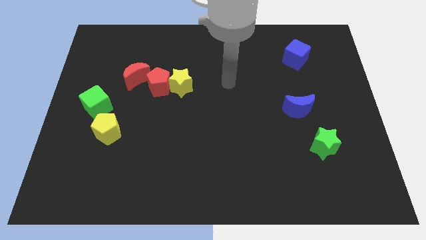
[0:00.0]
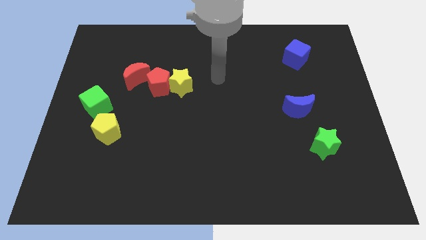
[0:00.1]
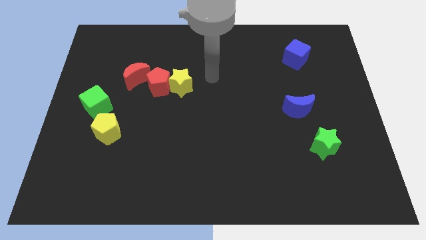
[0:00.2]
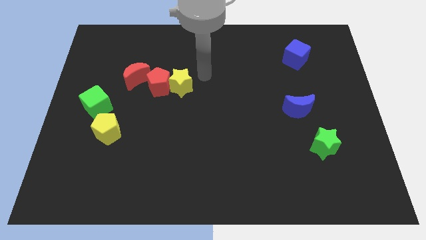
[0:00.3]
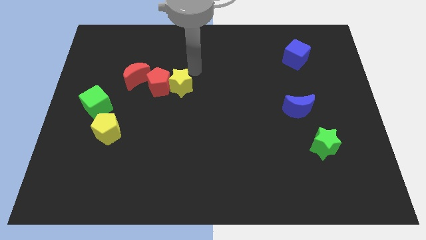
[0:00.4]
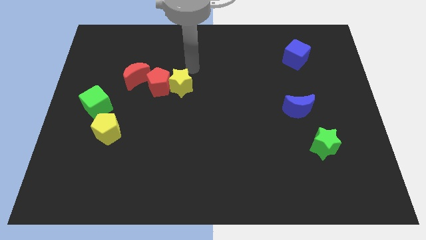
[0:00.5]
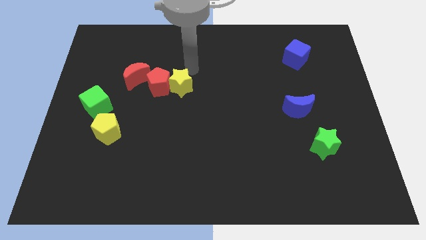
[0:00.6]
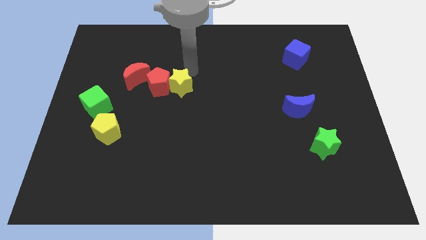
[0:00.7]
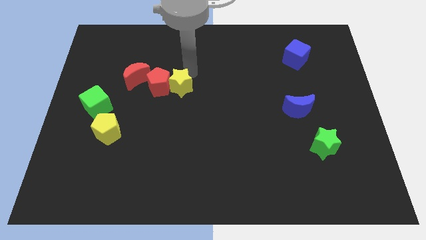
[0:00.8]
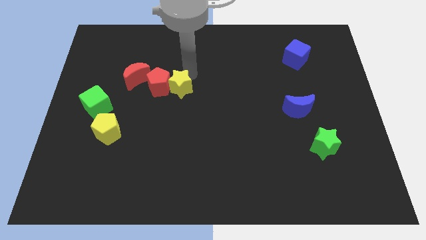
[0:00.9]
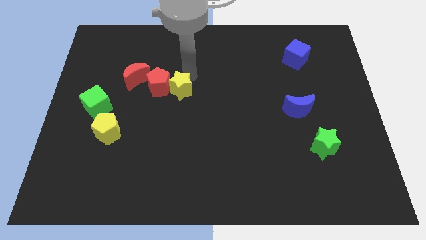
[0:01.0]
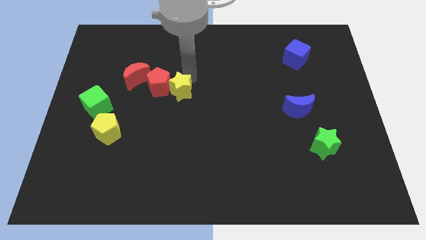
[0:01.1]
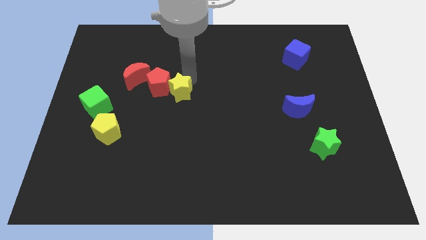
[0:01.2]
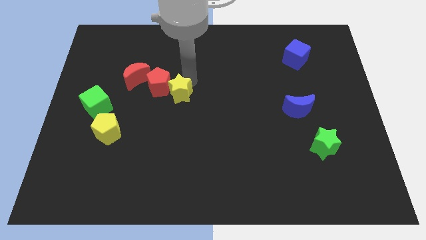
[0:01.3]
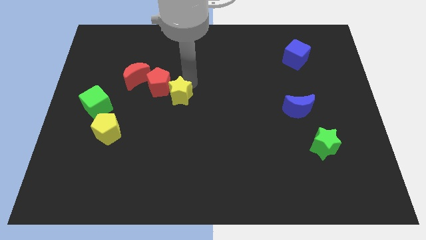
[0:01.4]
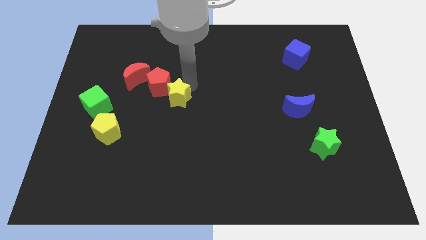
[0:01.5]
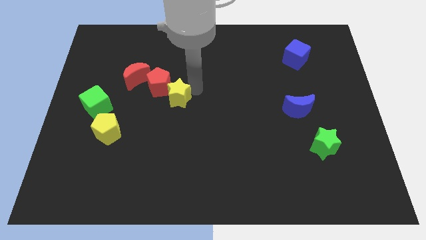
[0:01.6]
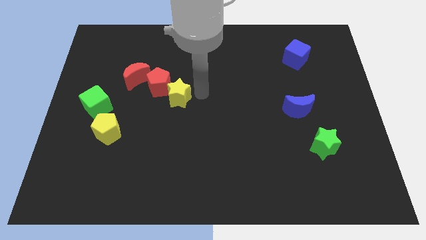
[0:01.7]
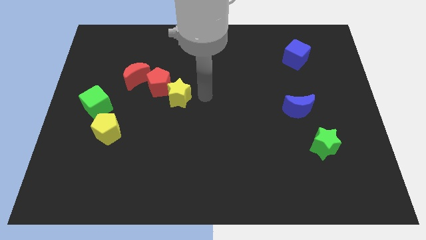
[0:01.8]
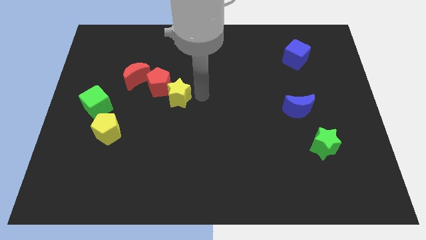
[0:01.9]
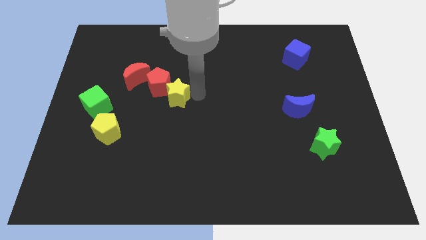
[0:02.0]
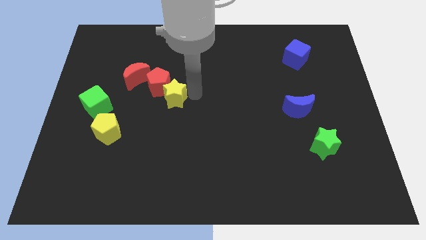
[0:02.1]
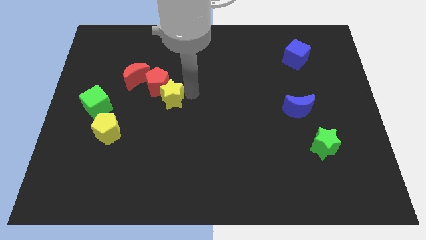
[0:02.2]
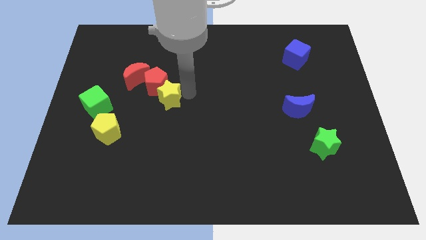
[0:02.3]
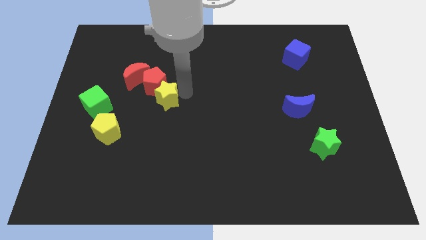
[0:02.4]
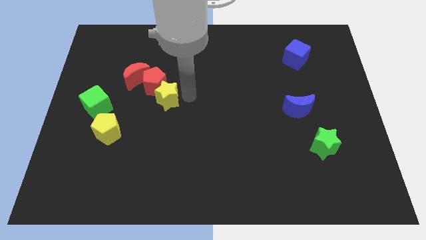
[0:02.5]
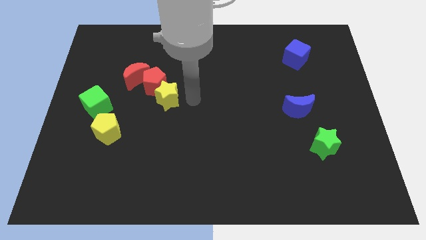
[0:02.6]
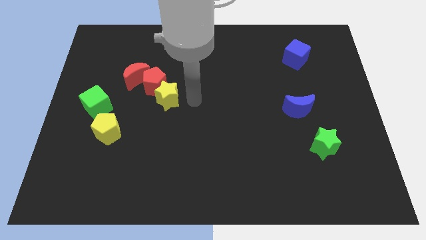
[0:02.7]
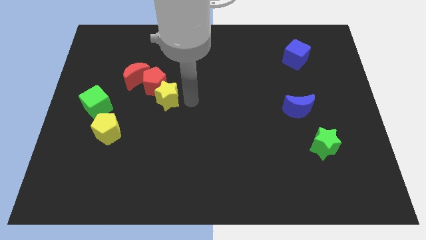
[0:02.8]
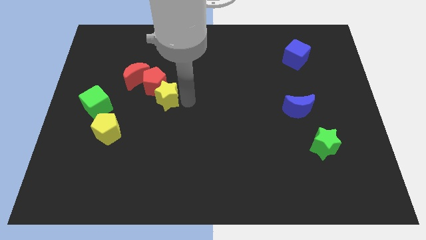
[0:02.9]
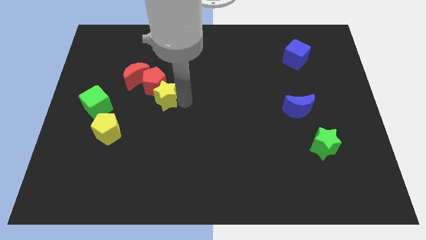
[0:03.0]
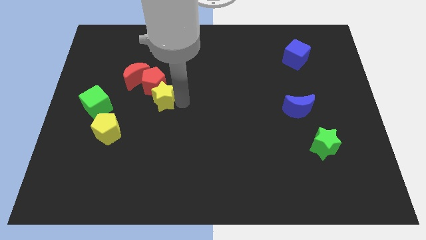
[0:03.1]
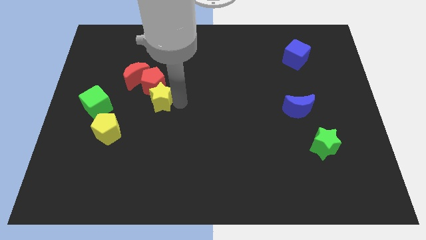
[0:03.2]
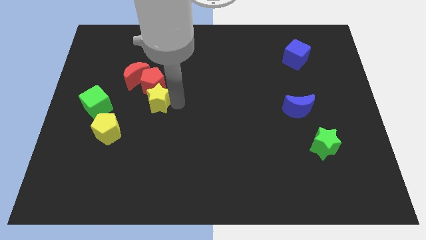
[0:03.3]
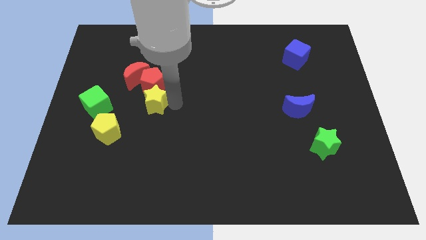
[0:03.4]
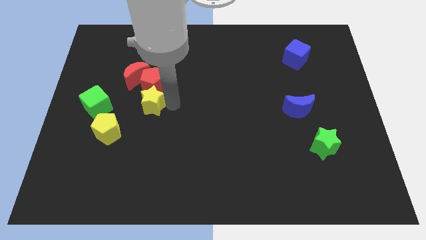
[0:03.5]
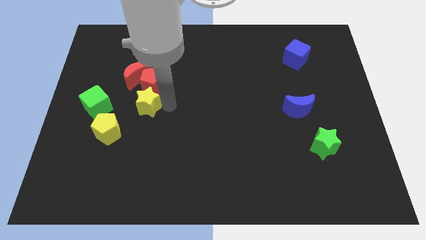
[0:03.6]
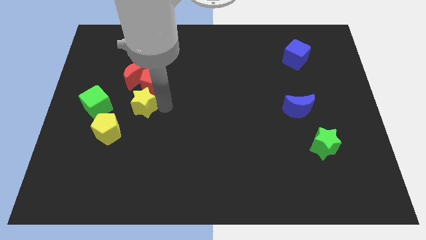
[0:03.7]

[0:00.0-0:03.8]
push the yellow star left a little

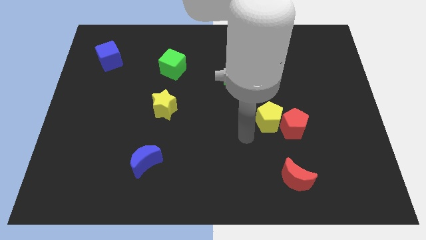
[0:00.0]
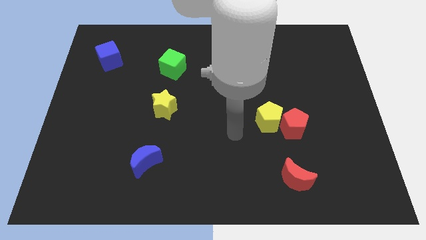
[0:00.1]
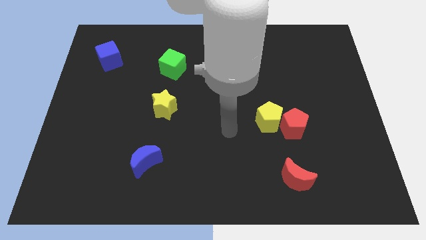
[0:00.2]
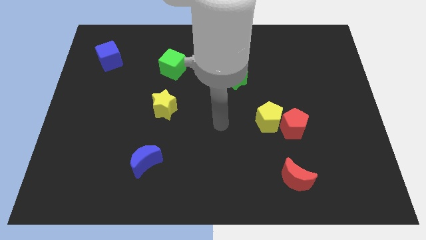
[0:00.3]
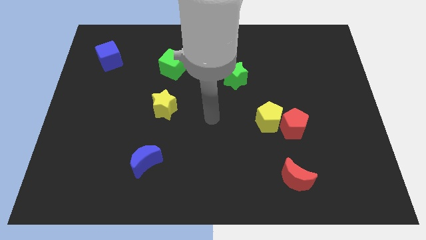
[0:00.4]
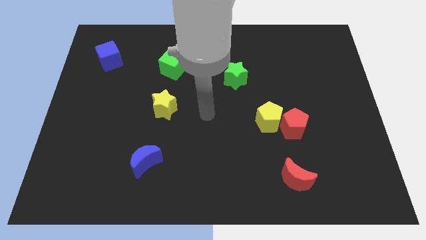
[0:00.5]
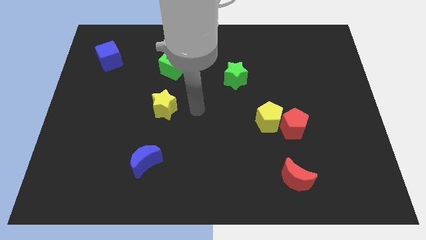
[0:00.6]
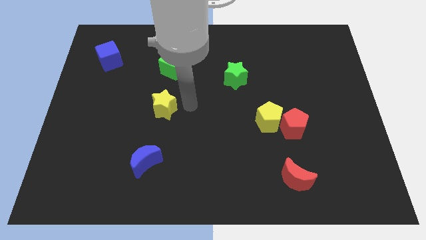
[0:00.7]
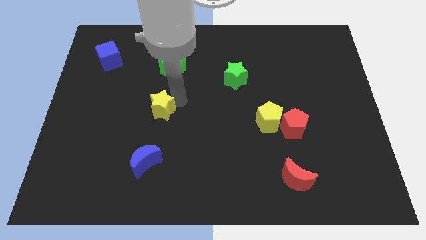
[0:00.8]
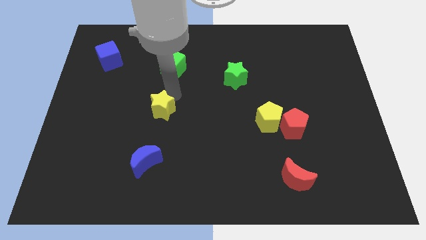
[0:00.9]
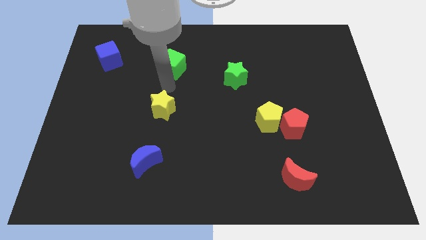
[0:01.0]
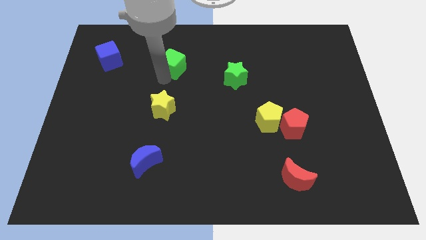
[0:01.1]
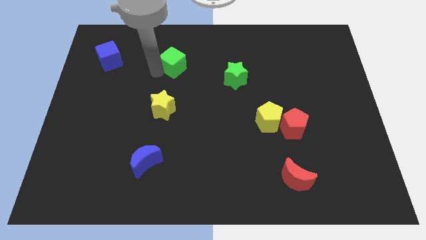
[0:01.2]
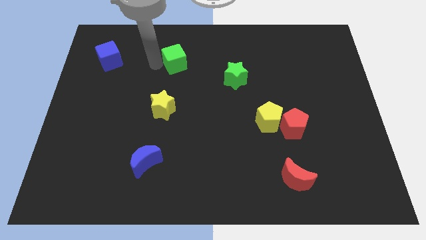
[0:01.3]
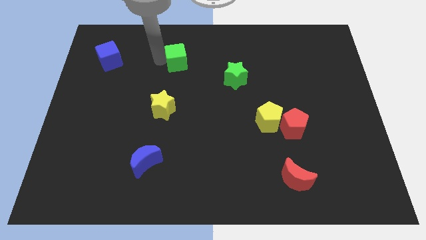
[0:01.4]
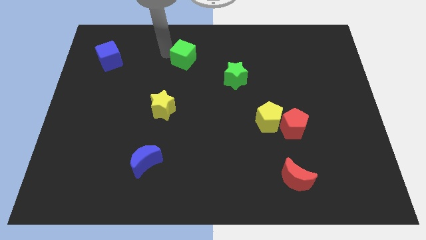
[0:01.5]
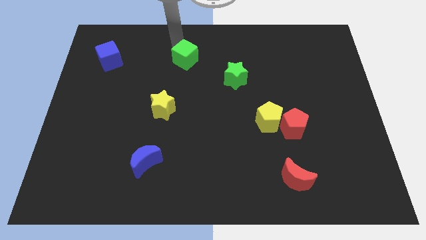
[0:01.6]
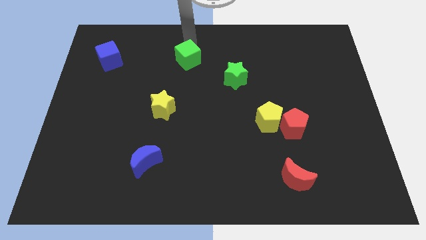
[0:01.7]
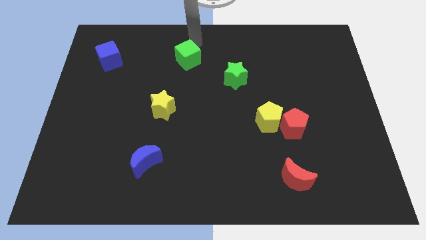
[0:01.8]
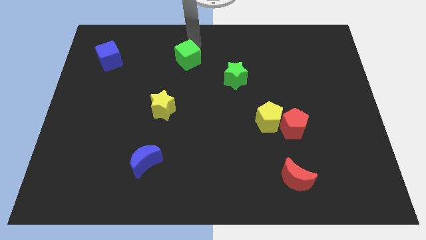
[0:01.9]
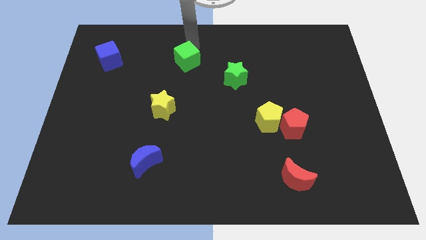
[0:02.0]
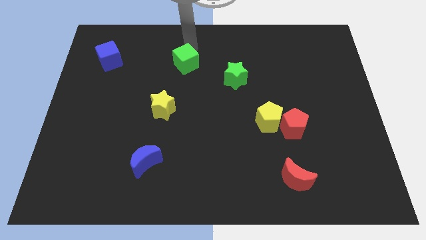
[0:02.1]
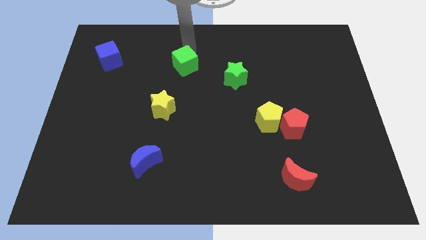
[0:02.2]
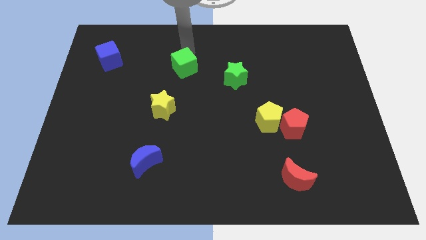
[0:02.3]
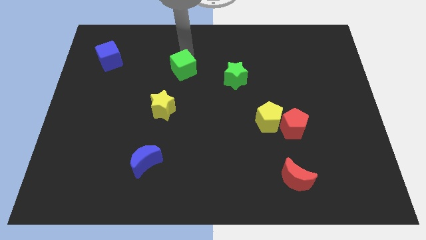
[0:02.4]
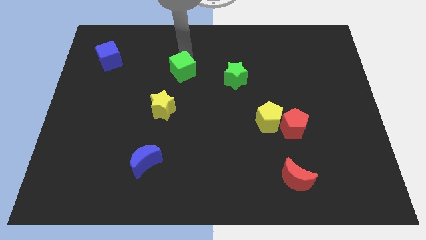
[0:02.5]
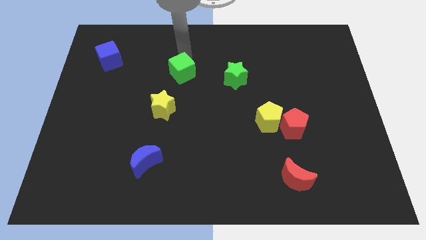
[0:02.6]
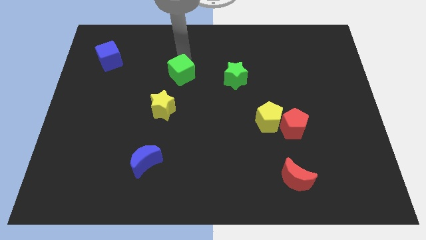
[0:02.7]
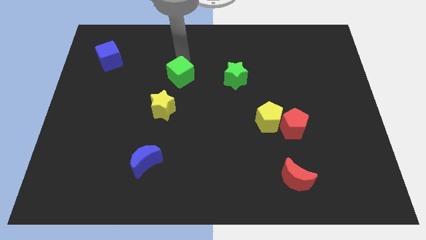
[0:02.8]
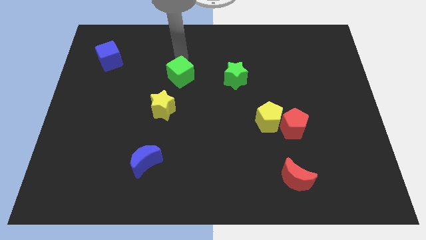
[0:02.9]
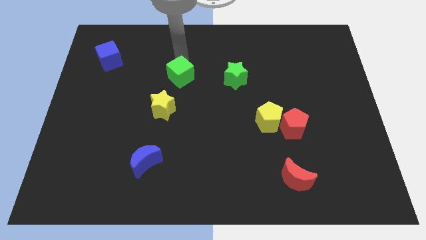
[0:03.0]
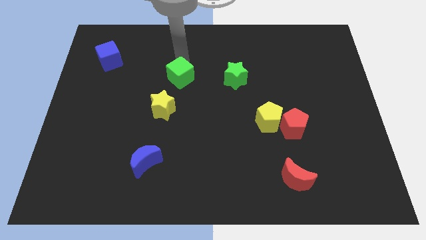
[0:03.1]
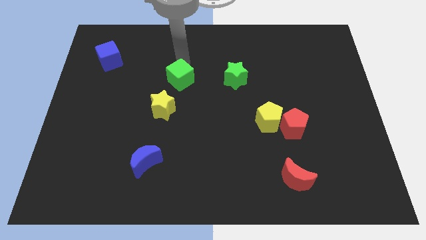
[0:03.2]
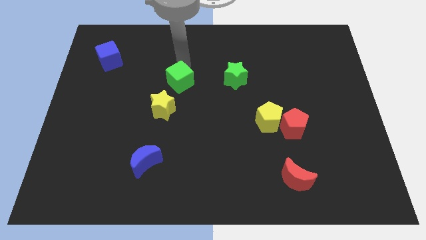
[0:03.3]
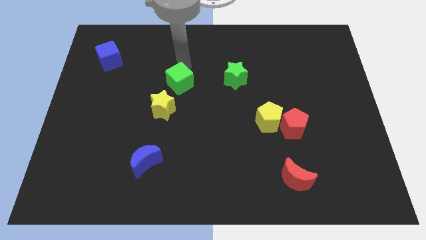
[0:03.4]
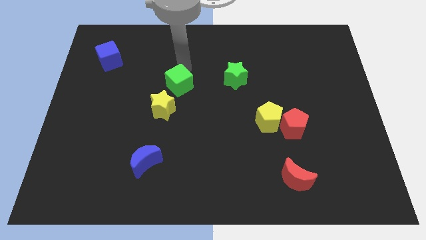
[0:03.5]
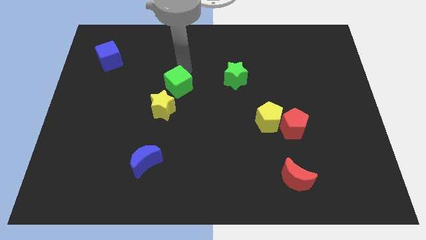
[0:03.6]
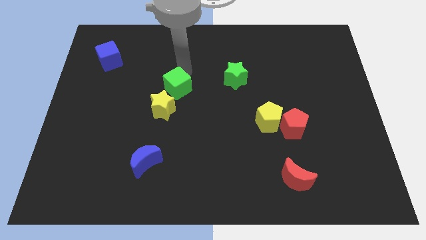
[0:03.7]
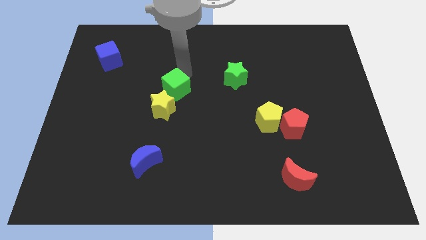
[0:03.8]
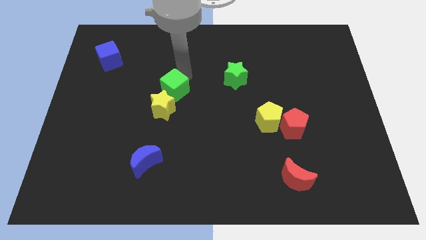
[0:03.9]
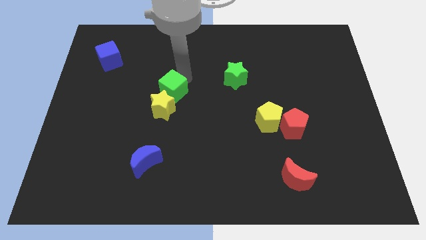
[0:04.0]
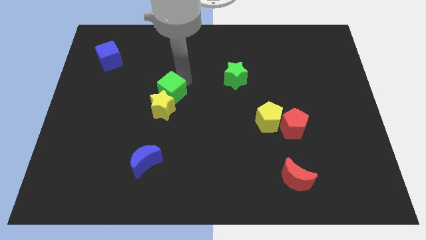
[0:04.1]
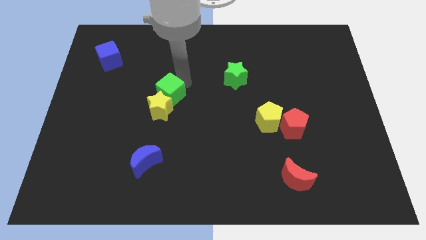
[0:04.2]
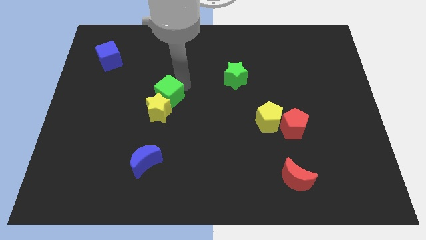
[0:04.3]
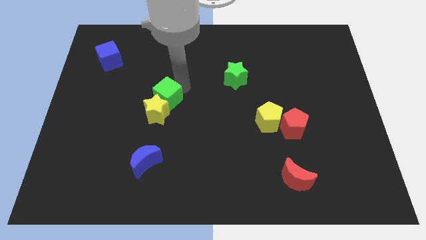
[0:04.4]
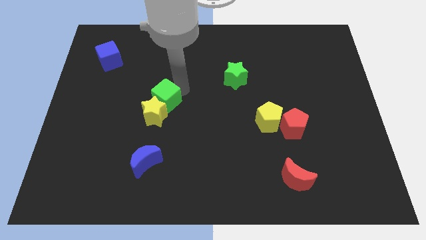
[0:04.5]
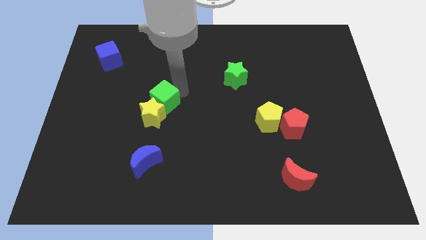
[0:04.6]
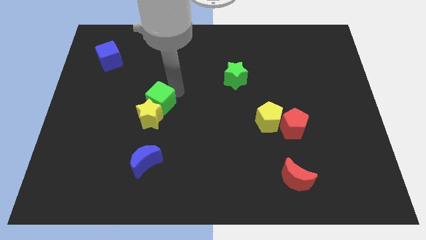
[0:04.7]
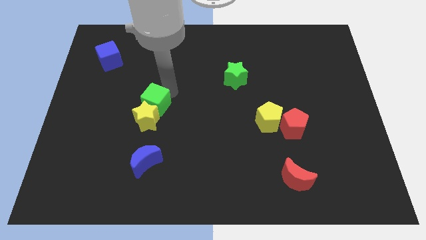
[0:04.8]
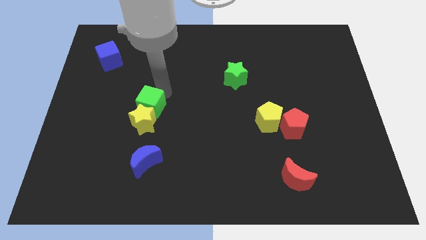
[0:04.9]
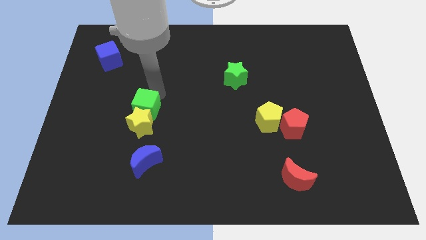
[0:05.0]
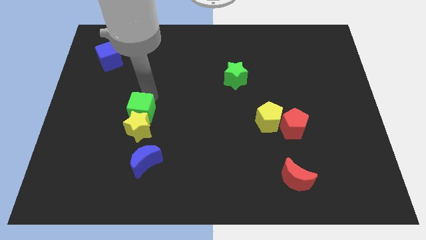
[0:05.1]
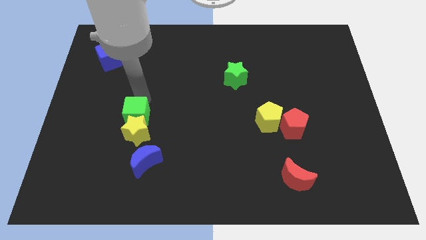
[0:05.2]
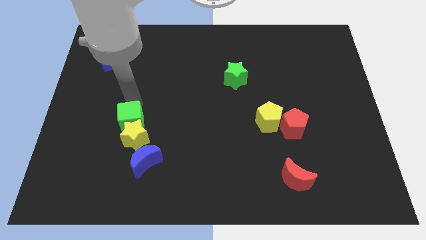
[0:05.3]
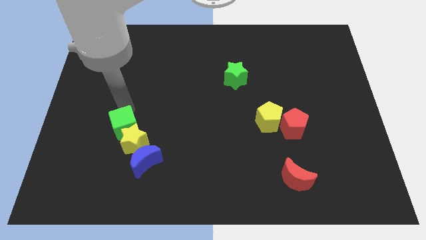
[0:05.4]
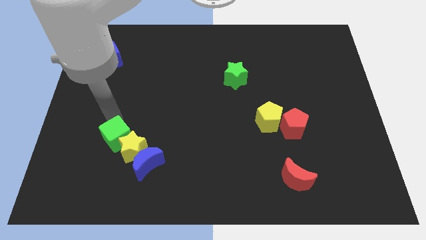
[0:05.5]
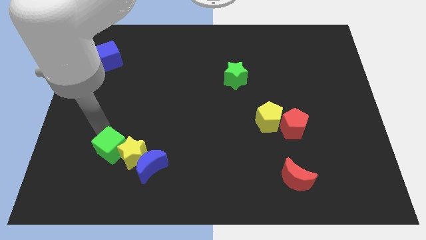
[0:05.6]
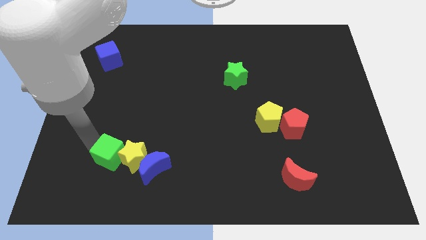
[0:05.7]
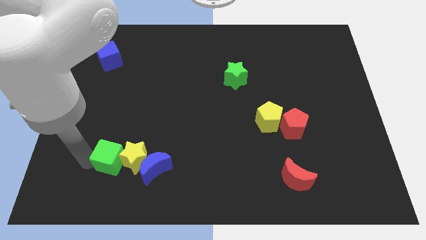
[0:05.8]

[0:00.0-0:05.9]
slide the green cube downwards
